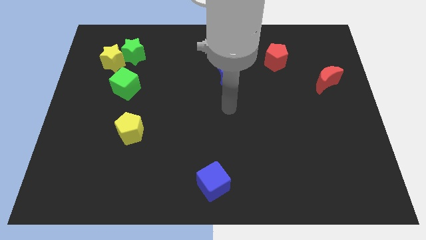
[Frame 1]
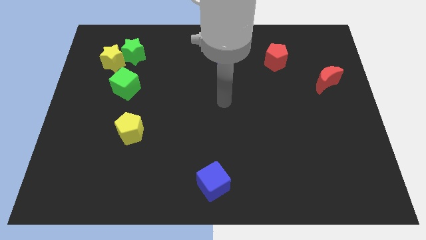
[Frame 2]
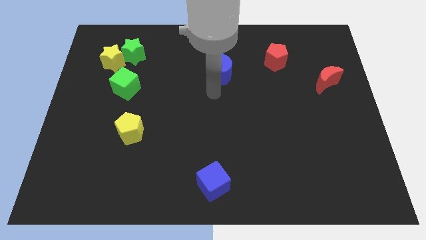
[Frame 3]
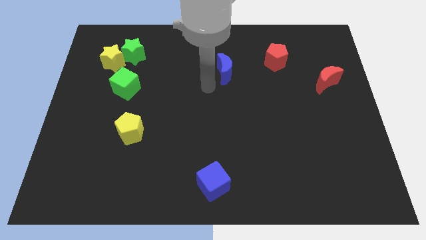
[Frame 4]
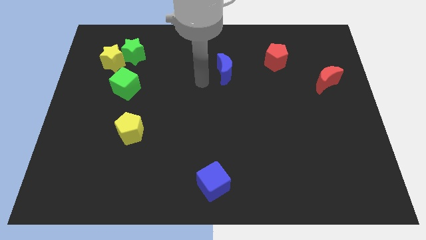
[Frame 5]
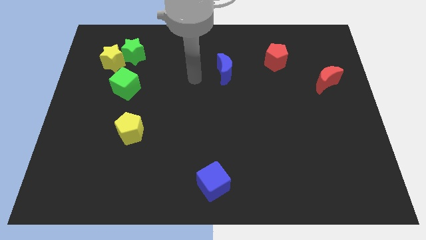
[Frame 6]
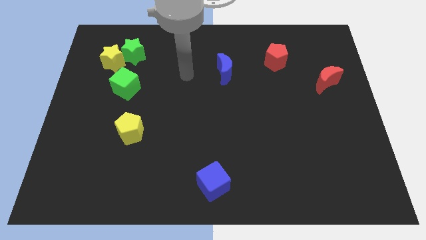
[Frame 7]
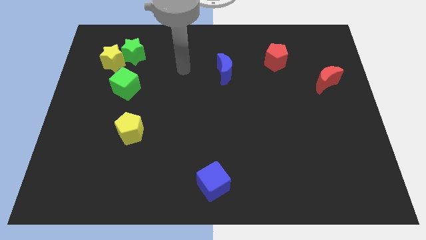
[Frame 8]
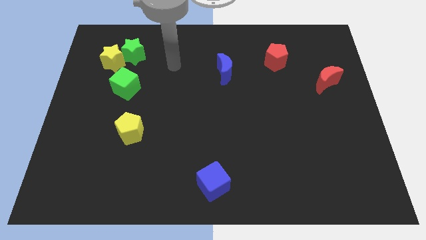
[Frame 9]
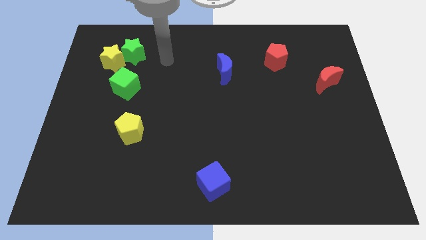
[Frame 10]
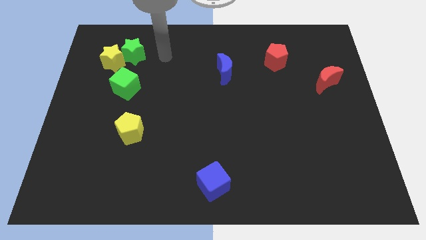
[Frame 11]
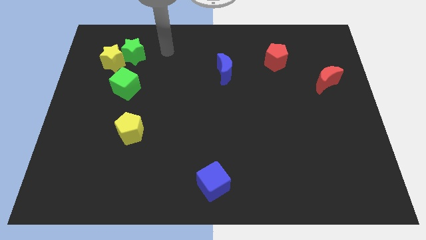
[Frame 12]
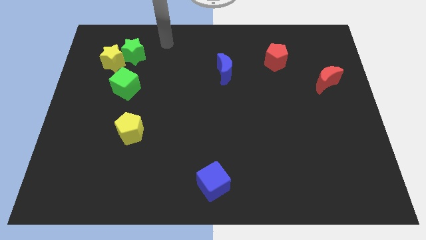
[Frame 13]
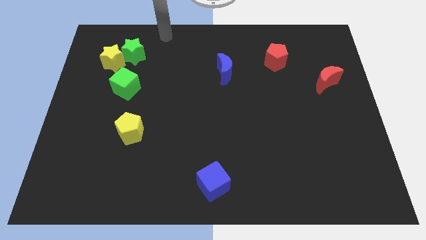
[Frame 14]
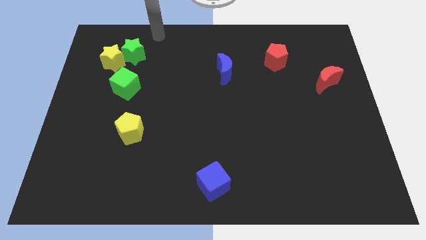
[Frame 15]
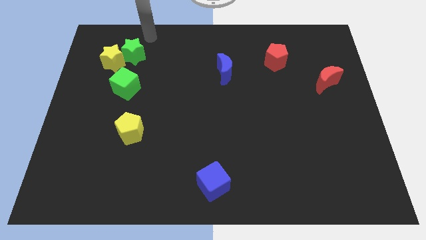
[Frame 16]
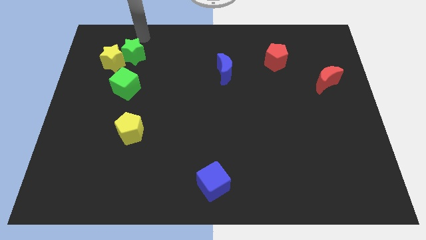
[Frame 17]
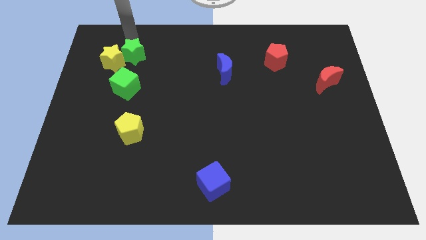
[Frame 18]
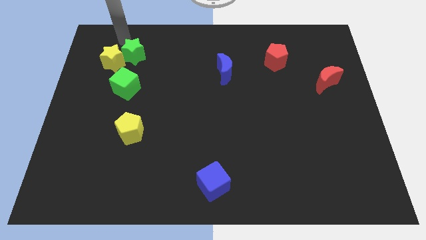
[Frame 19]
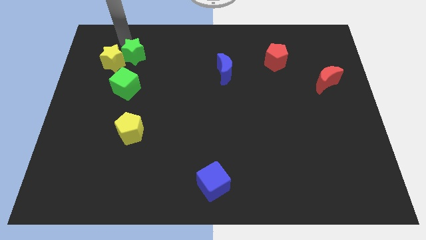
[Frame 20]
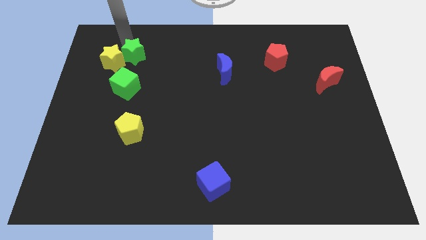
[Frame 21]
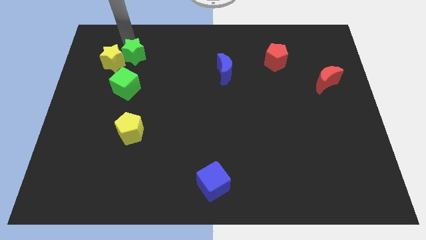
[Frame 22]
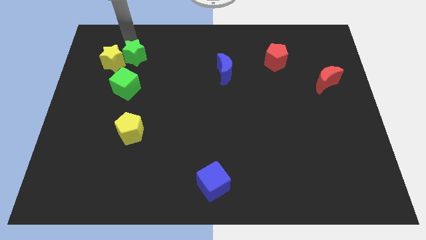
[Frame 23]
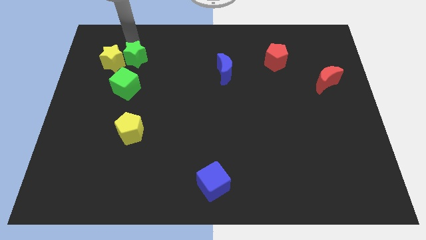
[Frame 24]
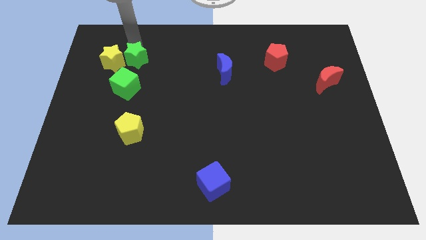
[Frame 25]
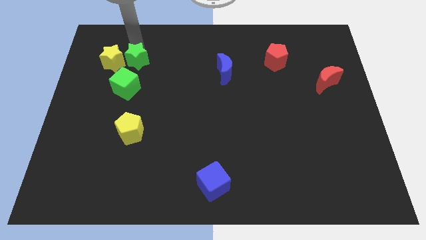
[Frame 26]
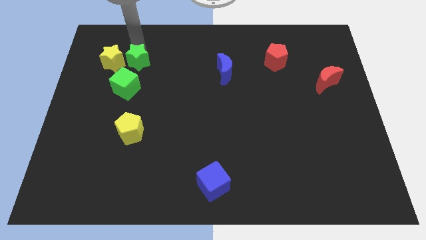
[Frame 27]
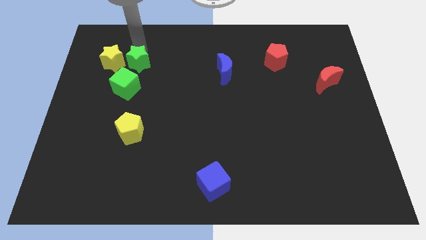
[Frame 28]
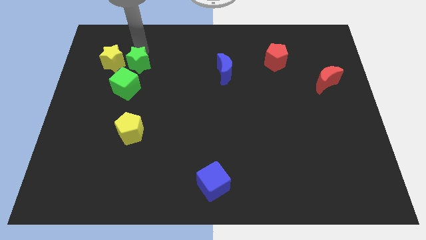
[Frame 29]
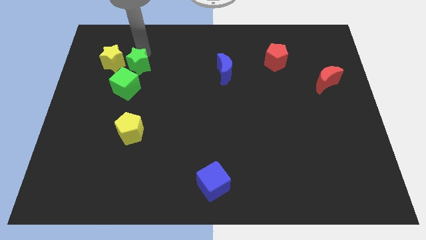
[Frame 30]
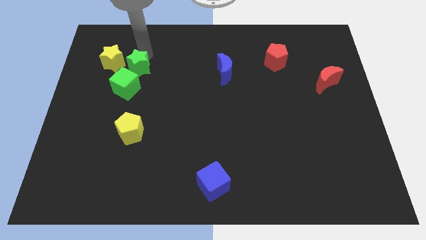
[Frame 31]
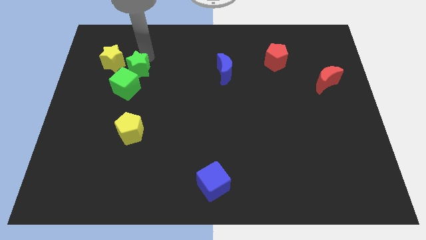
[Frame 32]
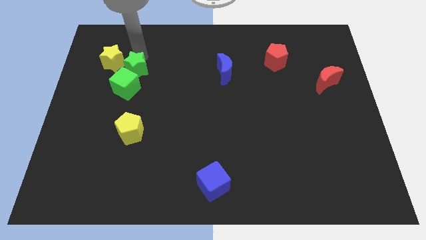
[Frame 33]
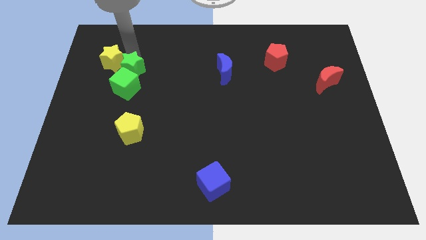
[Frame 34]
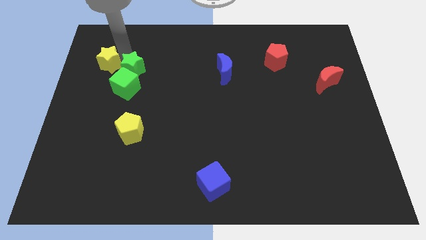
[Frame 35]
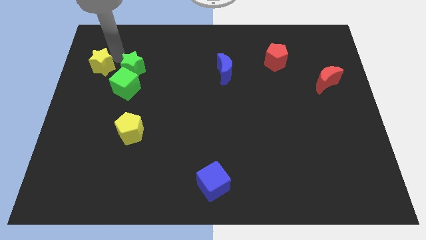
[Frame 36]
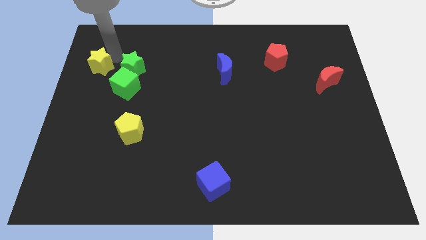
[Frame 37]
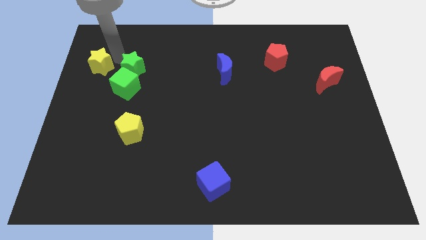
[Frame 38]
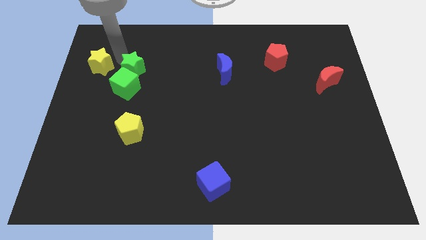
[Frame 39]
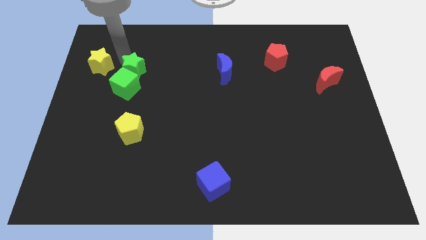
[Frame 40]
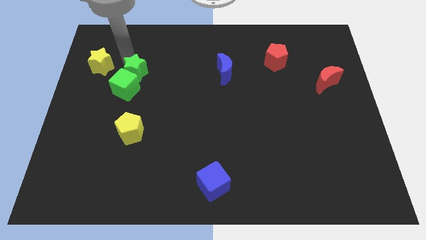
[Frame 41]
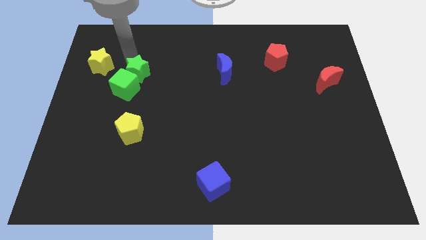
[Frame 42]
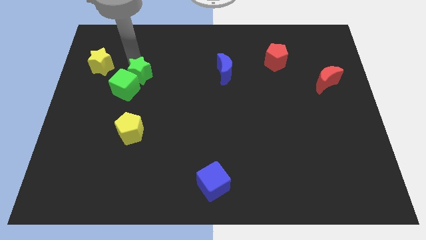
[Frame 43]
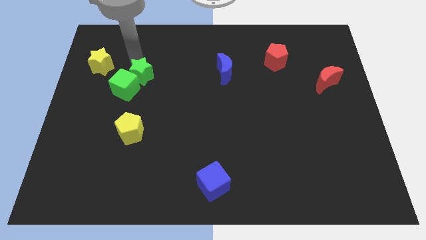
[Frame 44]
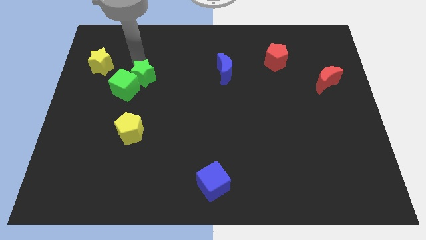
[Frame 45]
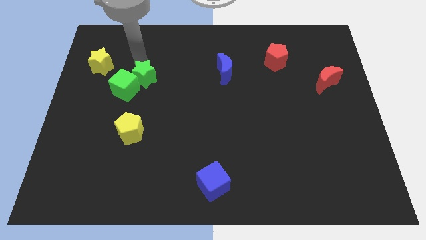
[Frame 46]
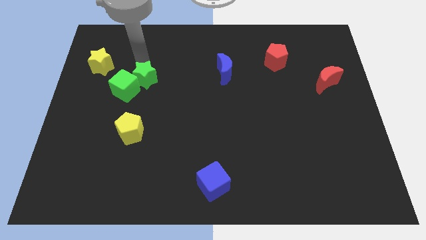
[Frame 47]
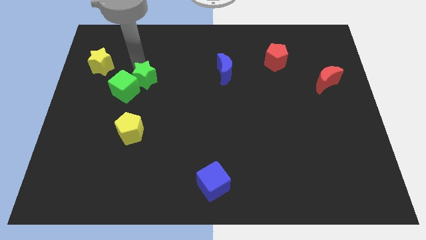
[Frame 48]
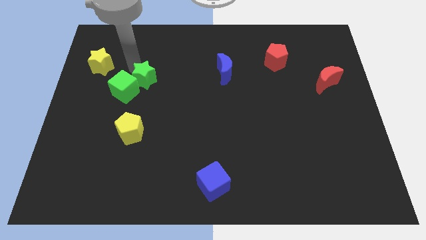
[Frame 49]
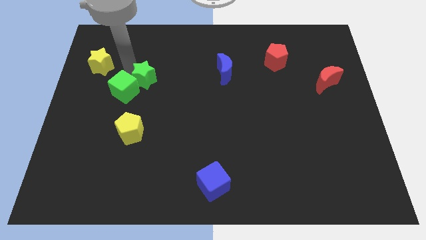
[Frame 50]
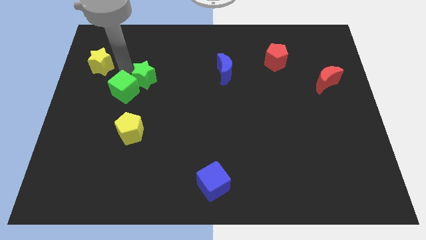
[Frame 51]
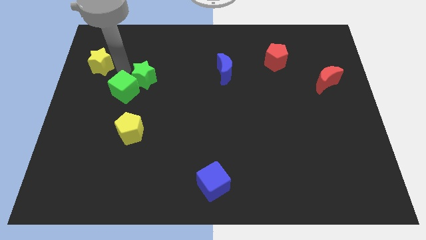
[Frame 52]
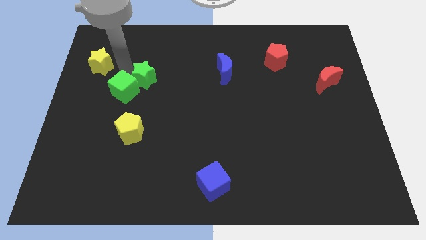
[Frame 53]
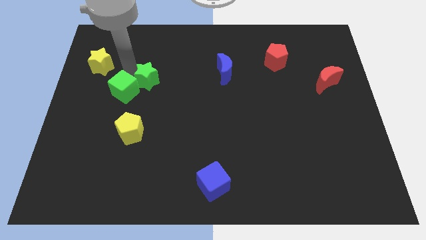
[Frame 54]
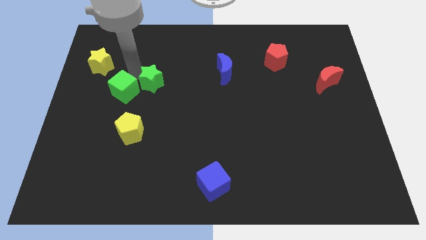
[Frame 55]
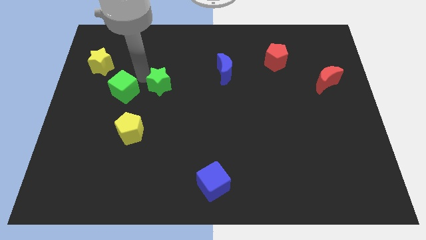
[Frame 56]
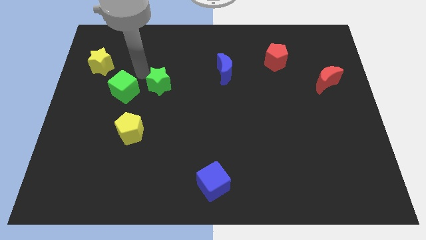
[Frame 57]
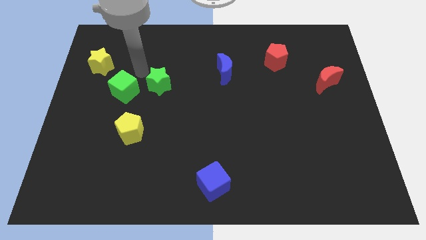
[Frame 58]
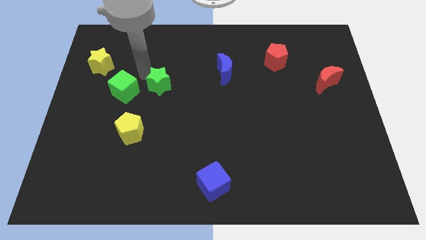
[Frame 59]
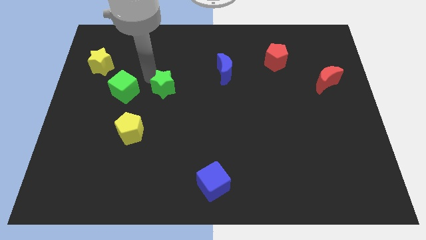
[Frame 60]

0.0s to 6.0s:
push the green star to the middle of the board
